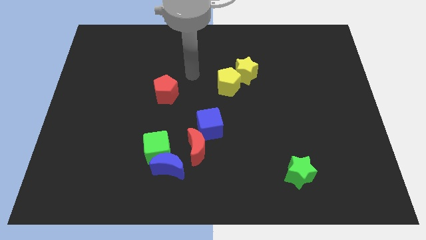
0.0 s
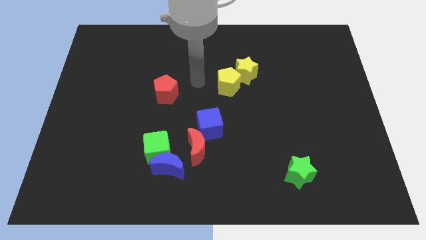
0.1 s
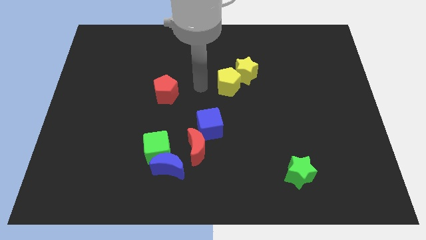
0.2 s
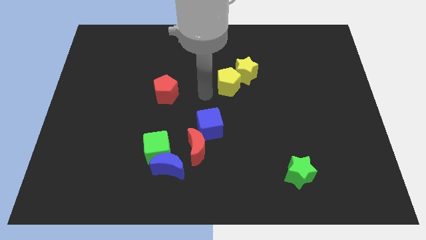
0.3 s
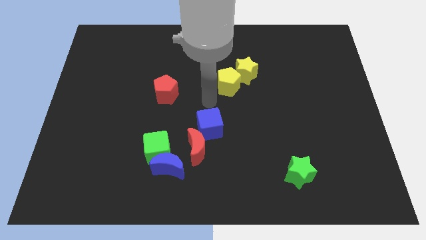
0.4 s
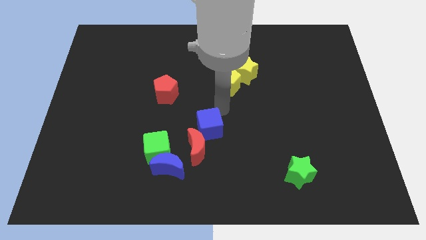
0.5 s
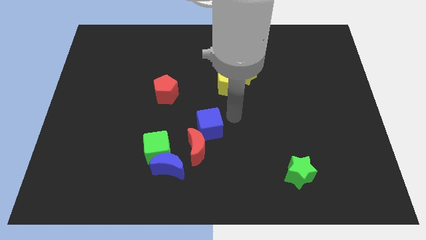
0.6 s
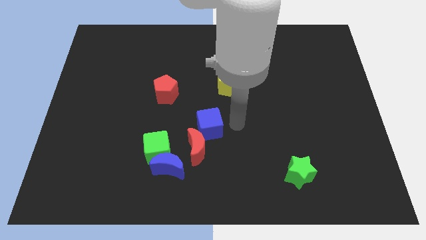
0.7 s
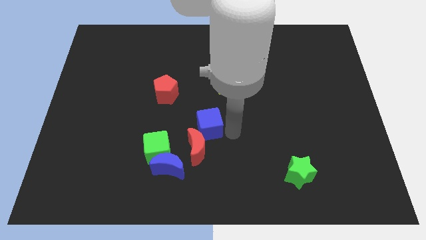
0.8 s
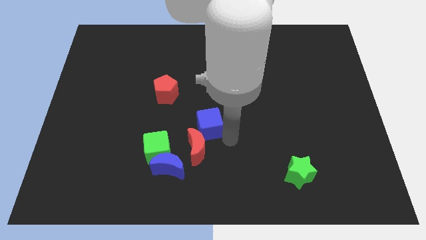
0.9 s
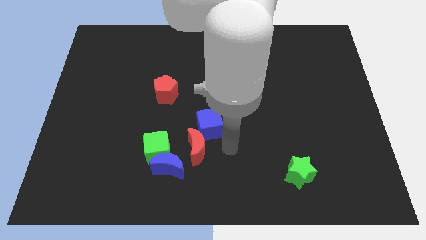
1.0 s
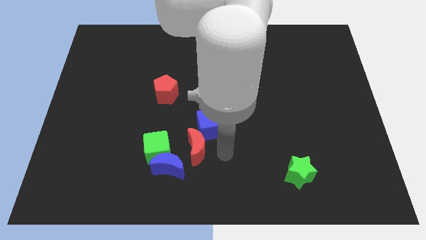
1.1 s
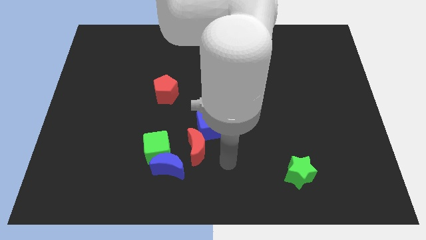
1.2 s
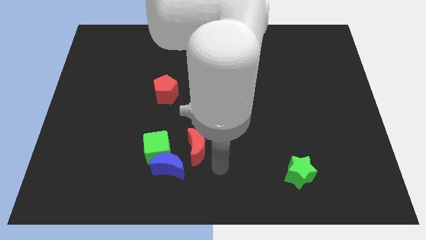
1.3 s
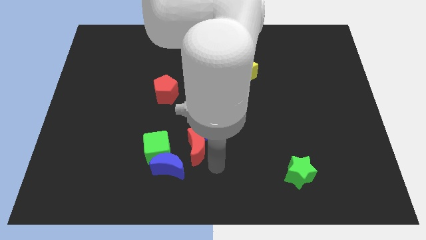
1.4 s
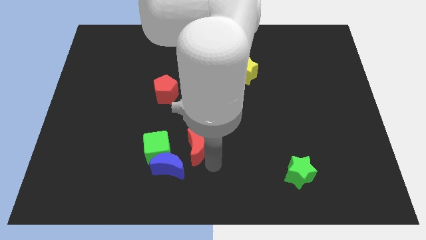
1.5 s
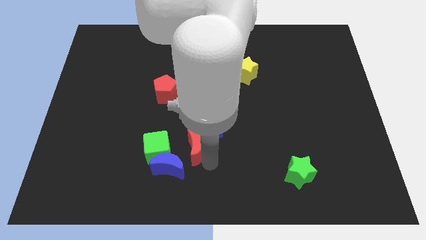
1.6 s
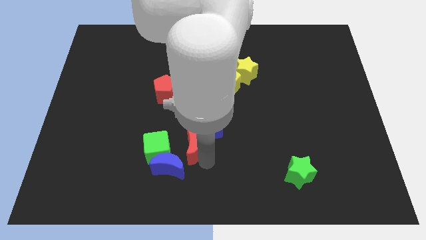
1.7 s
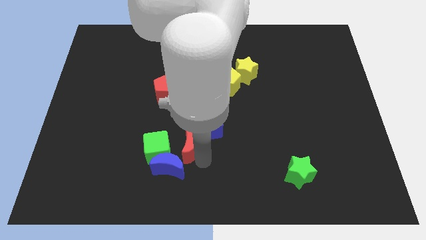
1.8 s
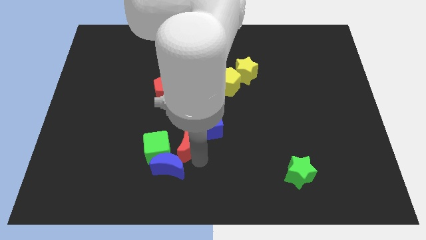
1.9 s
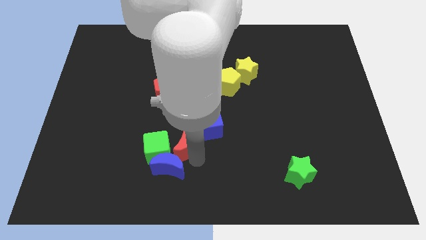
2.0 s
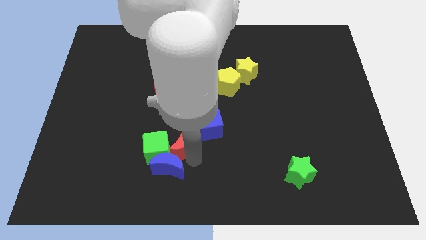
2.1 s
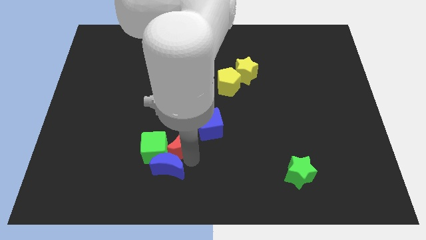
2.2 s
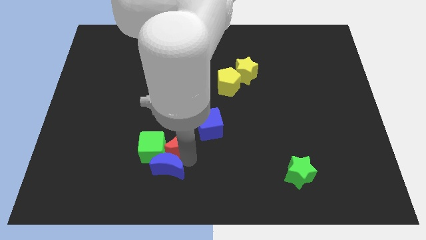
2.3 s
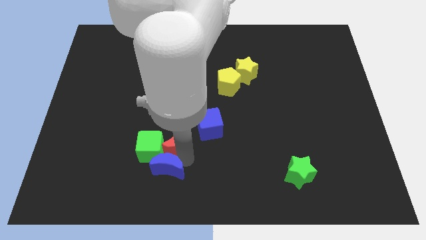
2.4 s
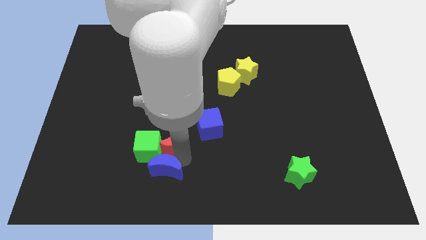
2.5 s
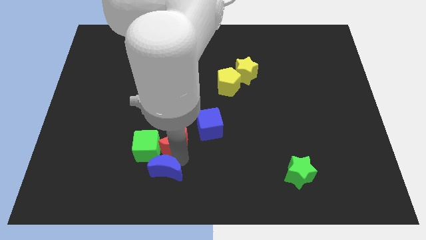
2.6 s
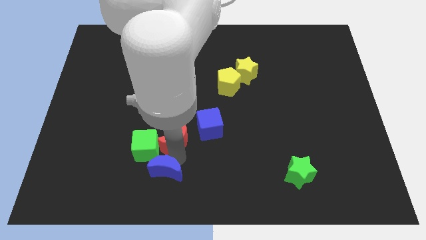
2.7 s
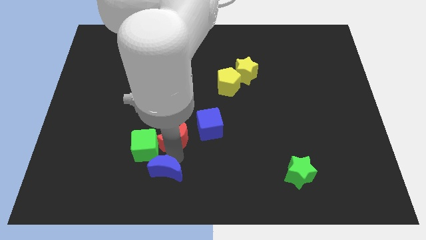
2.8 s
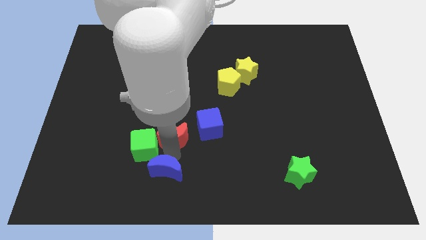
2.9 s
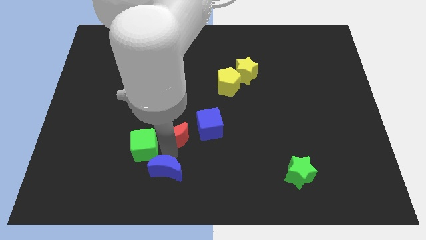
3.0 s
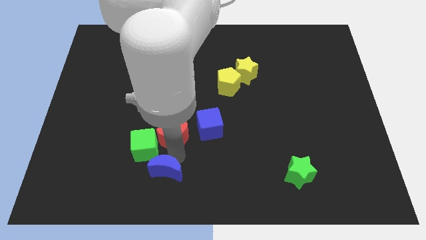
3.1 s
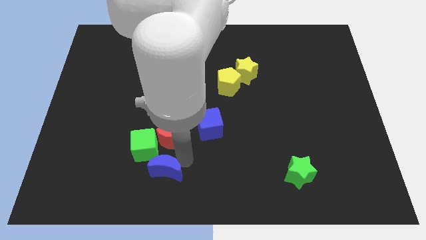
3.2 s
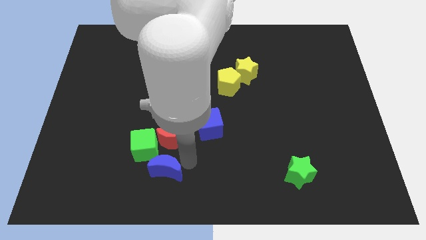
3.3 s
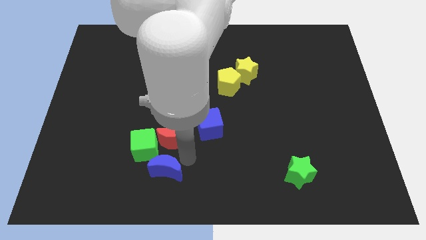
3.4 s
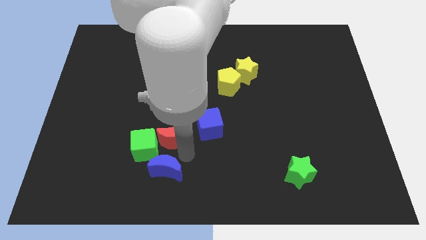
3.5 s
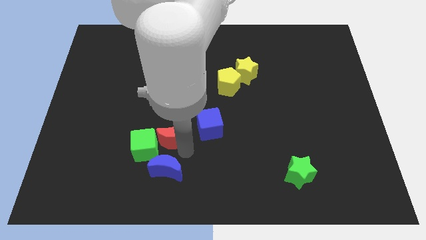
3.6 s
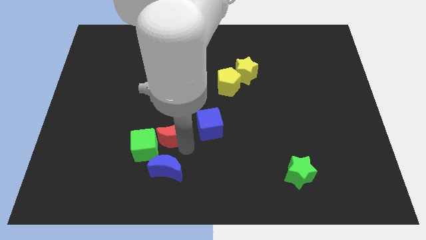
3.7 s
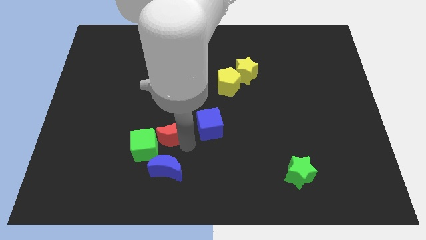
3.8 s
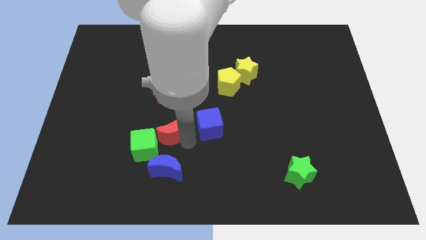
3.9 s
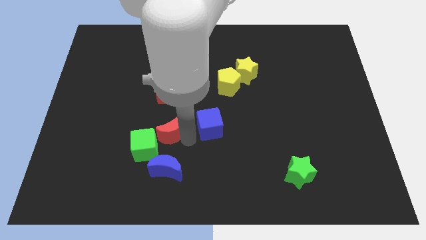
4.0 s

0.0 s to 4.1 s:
move the red moon a bit up and to the left diagonally

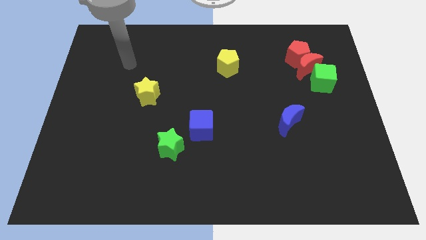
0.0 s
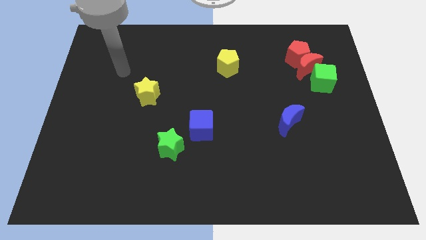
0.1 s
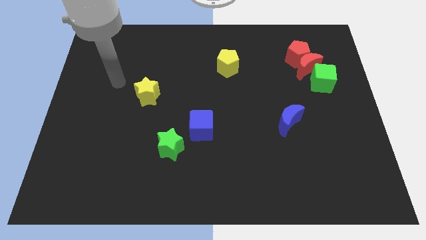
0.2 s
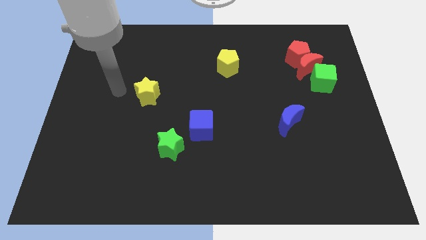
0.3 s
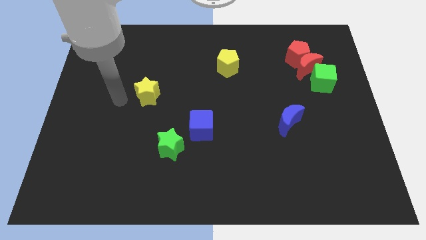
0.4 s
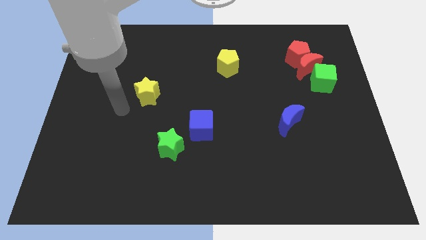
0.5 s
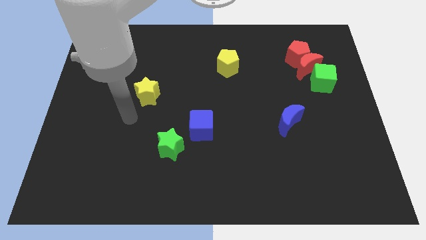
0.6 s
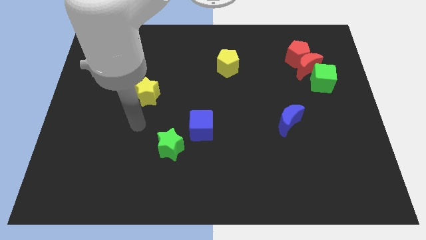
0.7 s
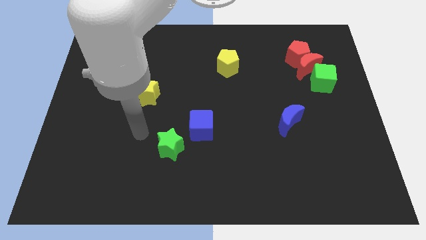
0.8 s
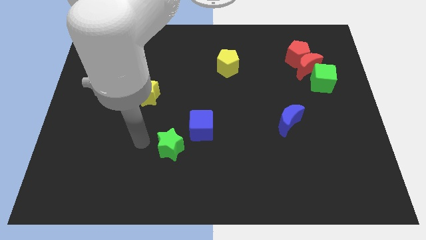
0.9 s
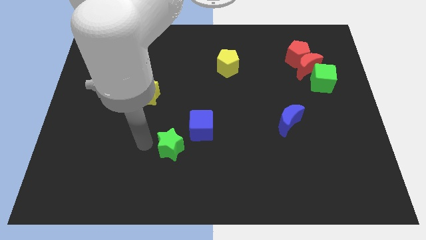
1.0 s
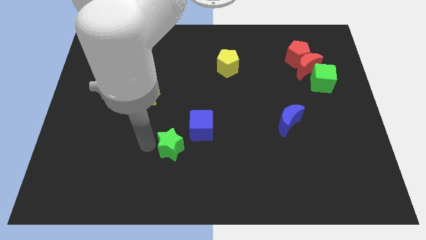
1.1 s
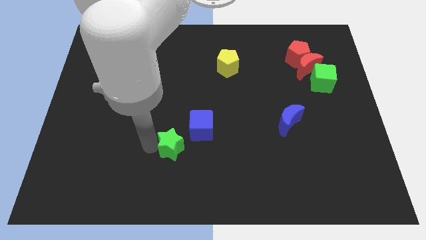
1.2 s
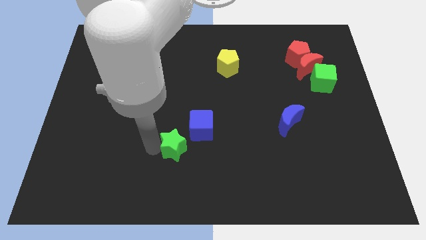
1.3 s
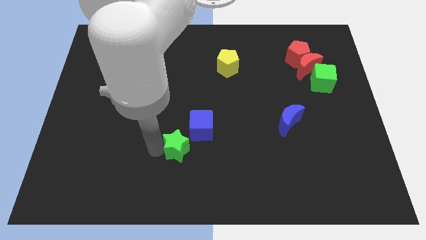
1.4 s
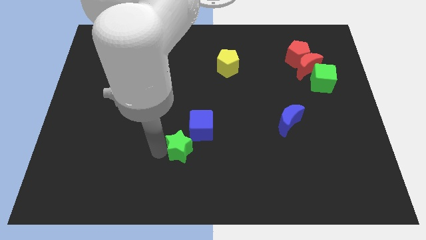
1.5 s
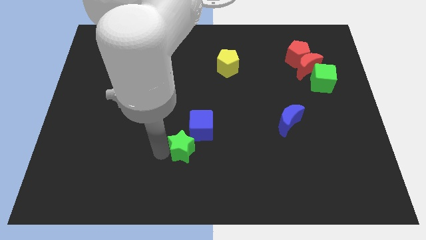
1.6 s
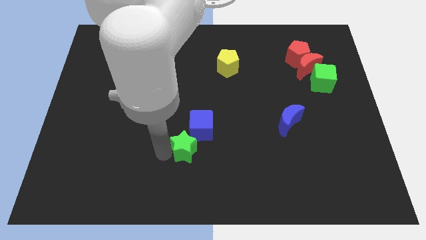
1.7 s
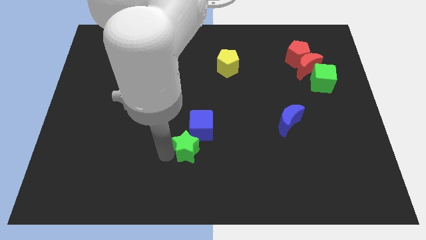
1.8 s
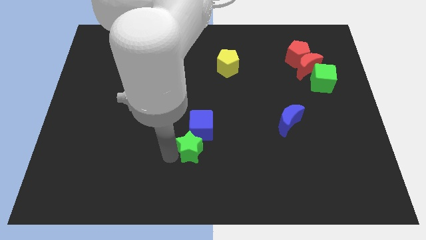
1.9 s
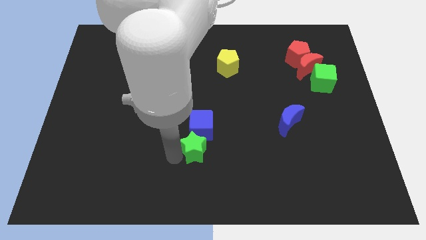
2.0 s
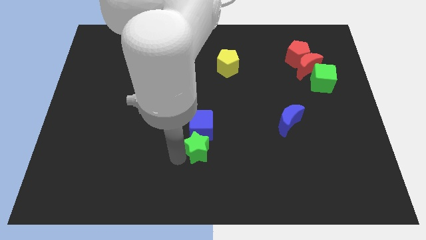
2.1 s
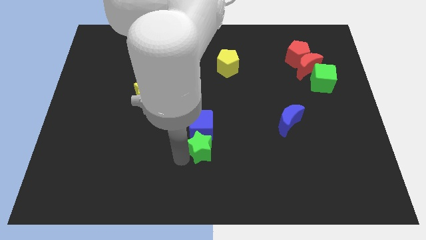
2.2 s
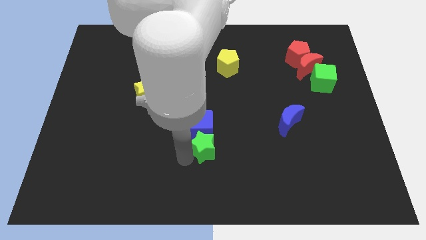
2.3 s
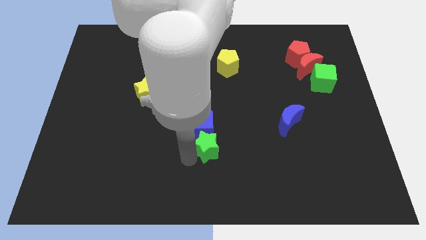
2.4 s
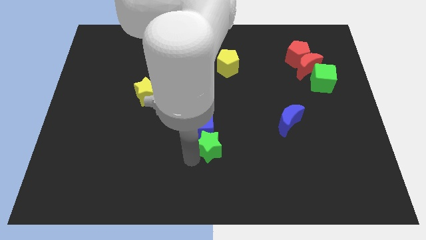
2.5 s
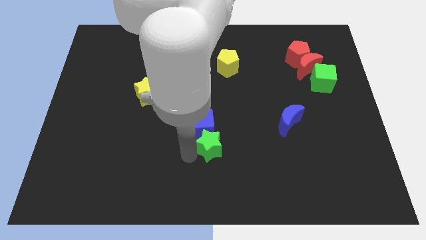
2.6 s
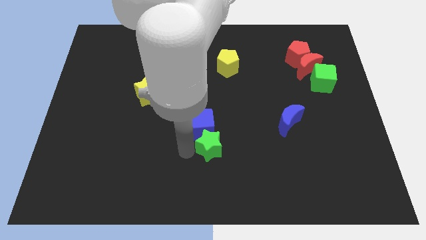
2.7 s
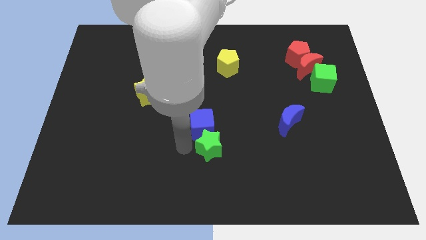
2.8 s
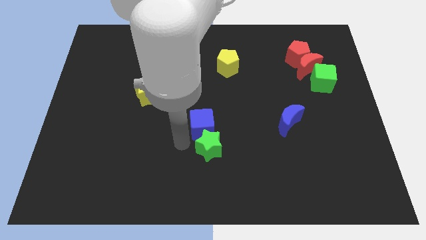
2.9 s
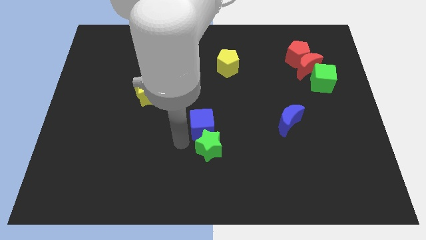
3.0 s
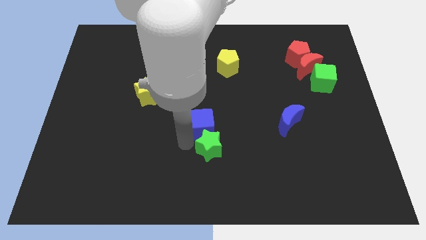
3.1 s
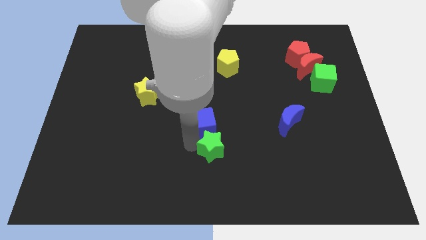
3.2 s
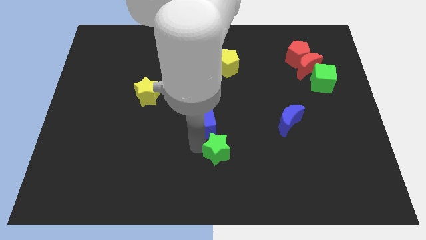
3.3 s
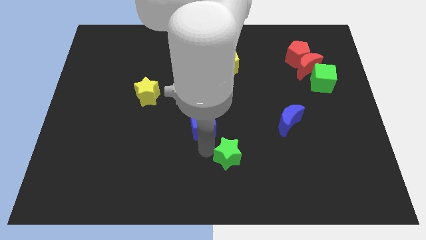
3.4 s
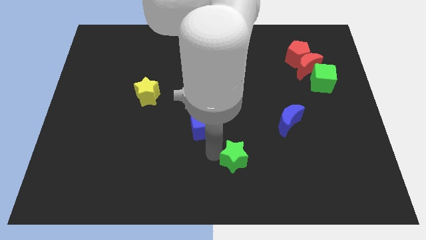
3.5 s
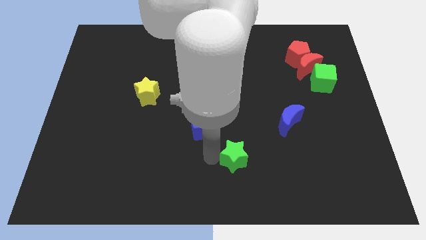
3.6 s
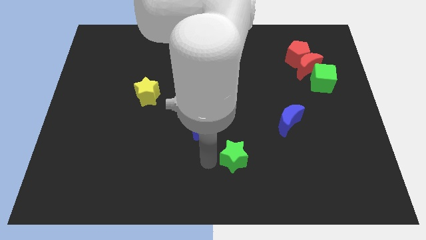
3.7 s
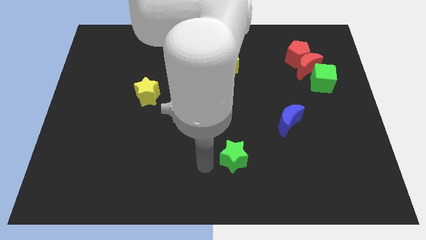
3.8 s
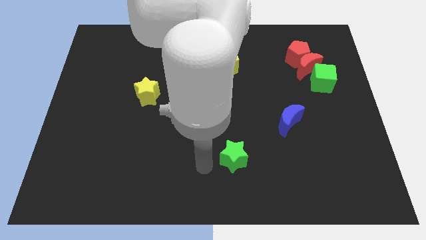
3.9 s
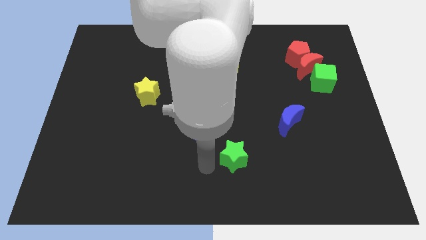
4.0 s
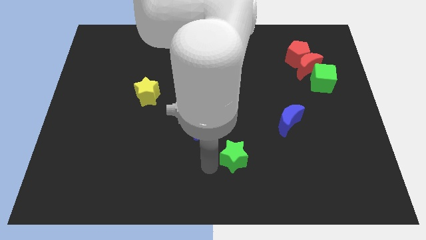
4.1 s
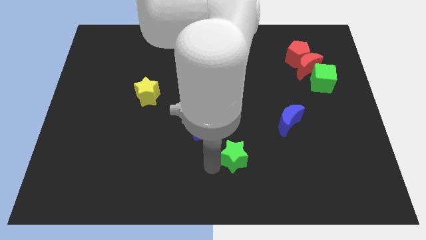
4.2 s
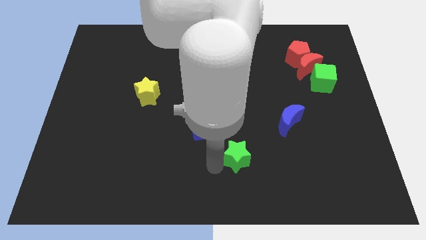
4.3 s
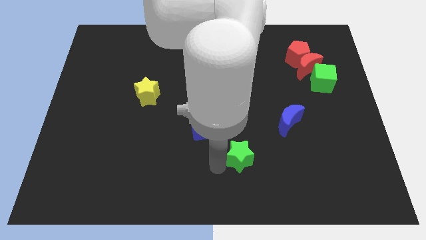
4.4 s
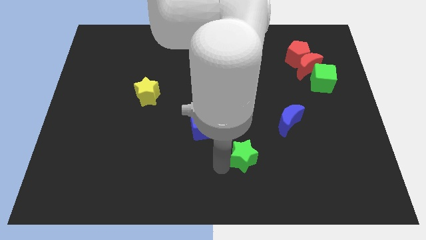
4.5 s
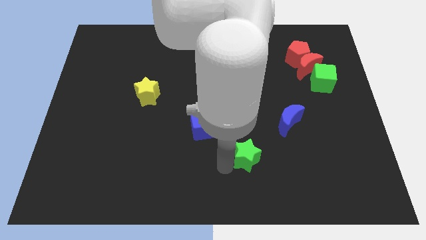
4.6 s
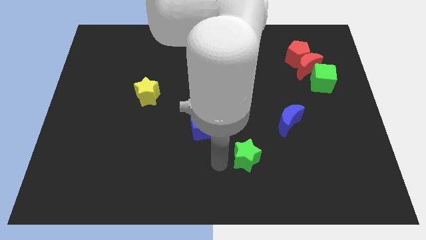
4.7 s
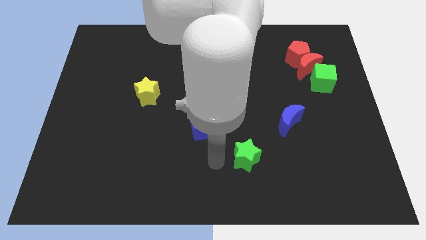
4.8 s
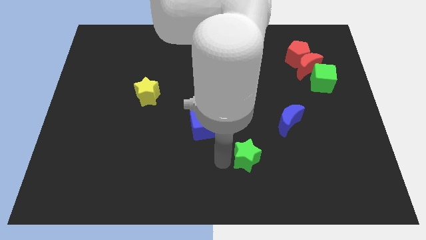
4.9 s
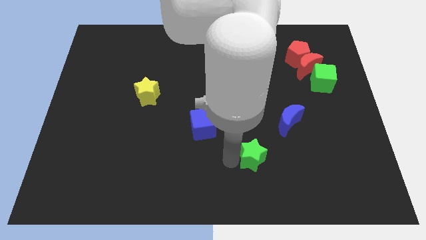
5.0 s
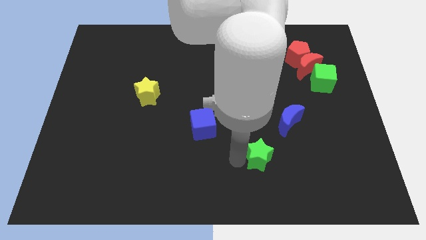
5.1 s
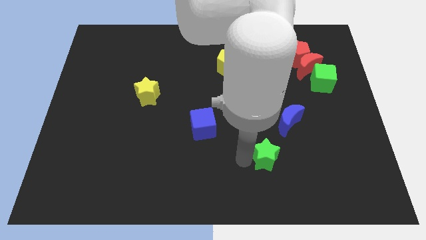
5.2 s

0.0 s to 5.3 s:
push the green star to the right
